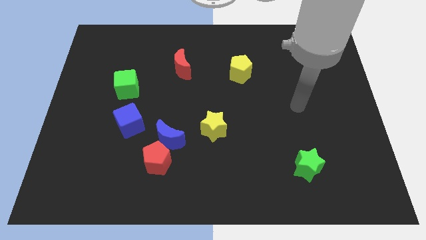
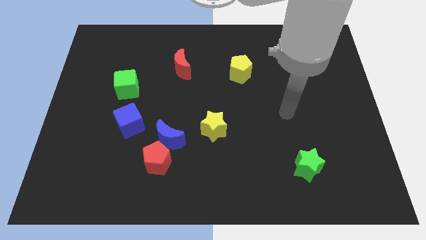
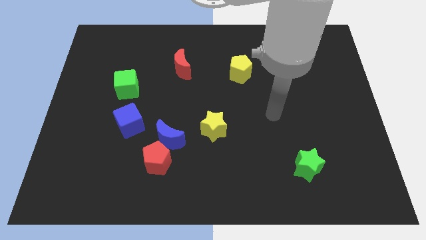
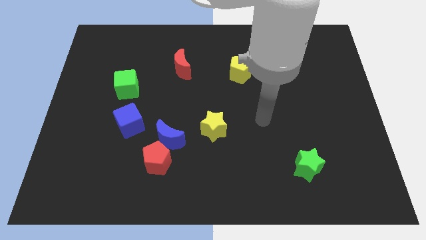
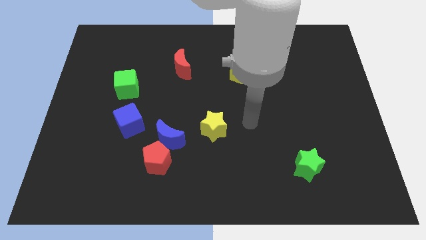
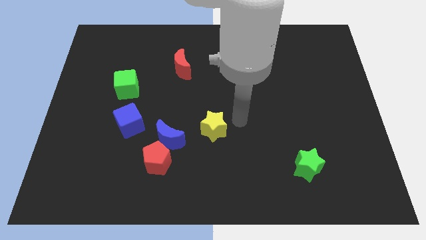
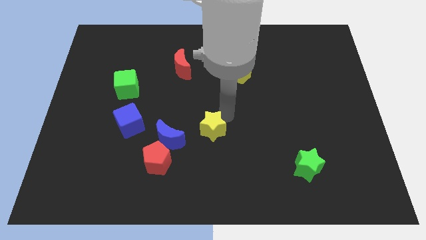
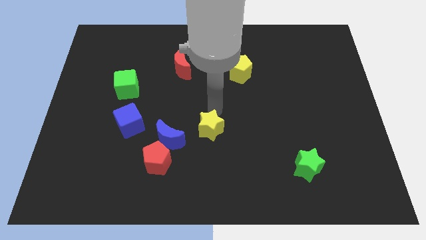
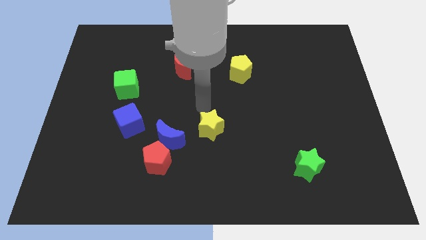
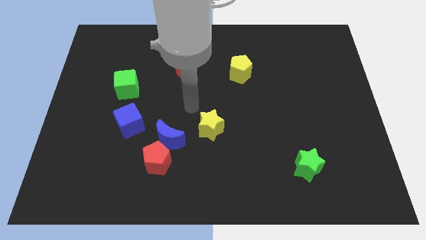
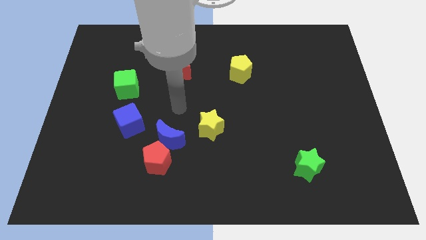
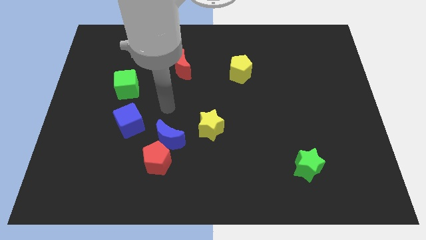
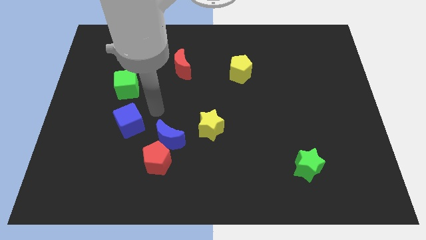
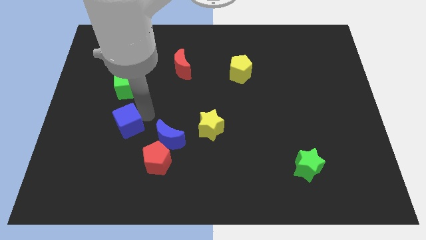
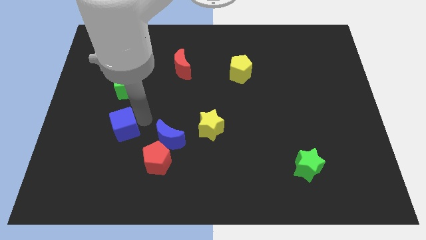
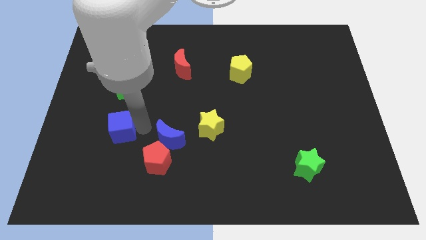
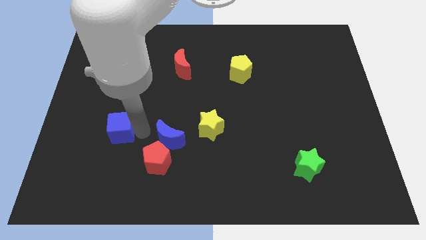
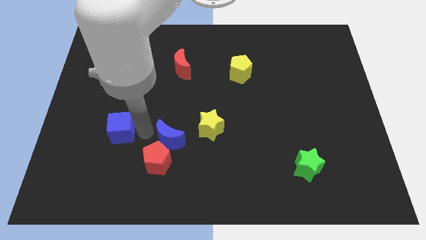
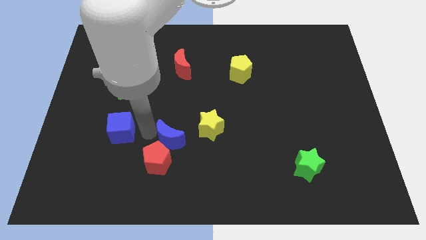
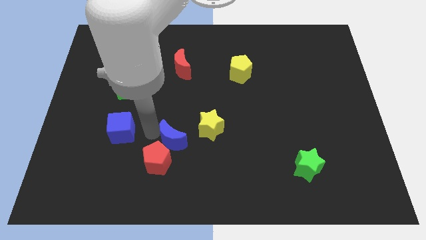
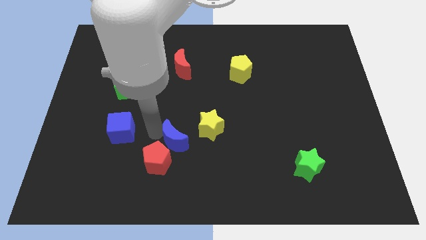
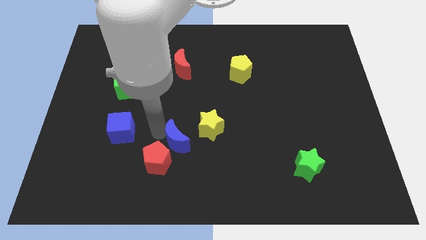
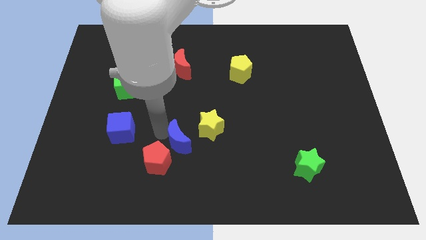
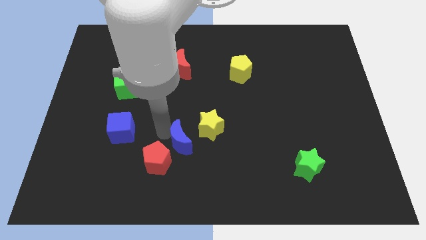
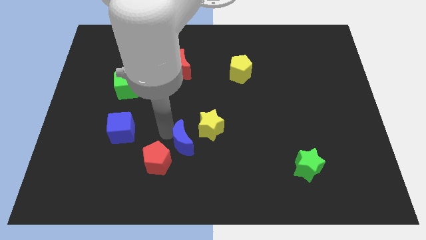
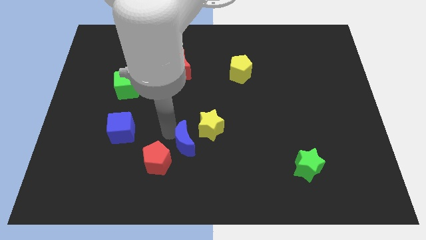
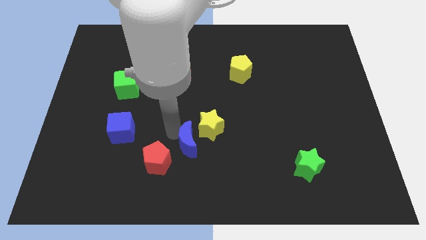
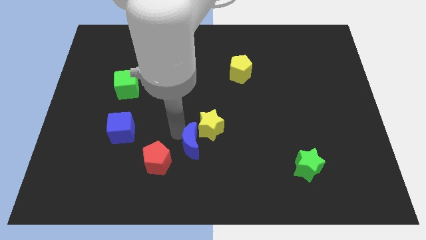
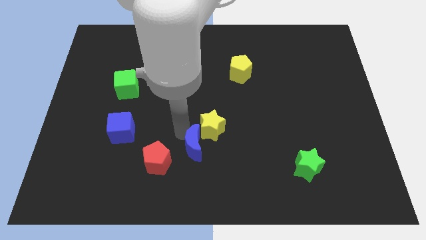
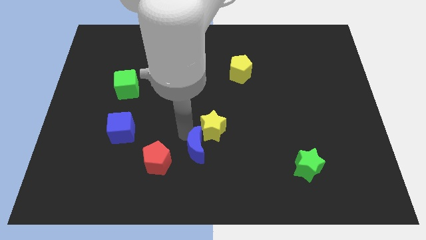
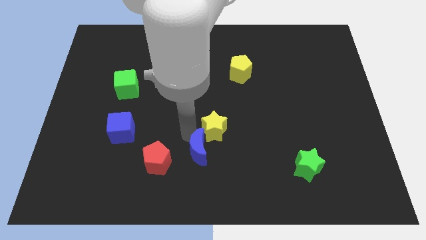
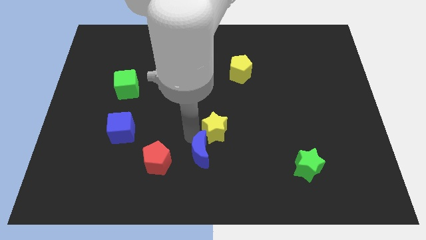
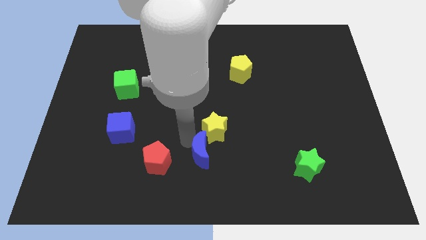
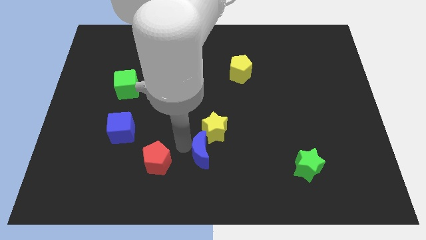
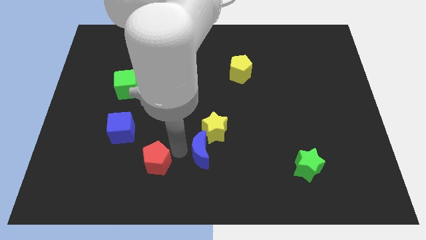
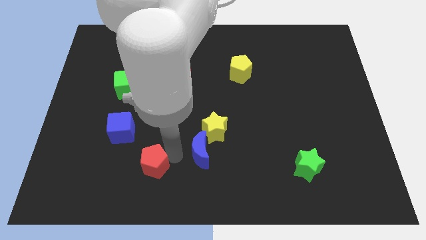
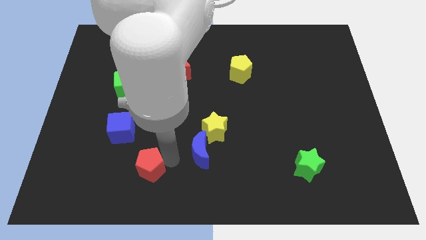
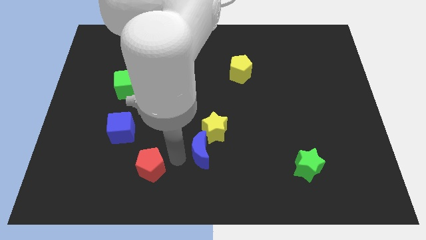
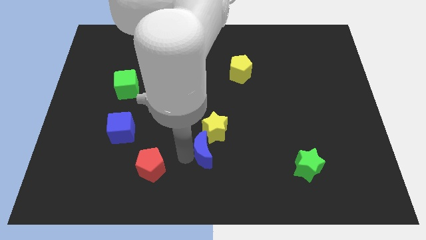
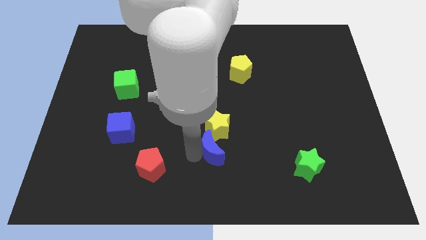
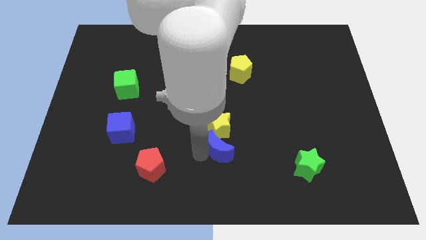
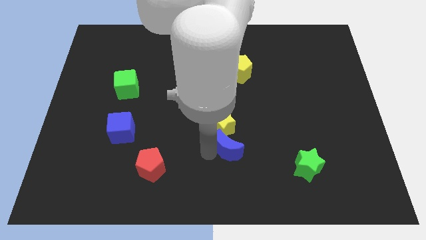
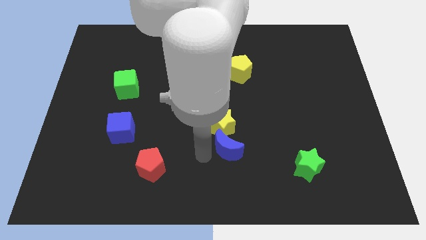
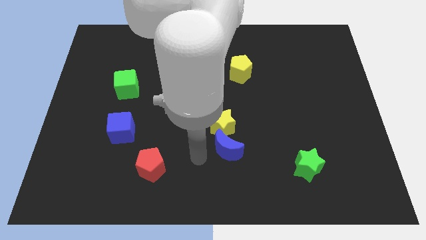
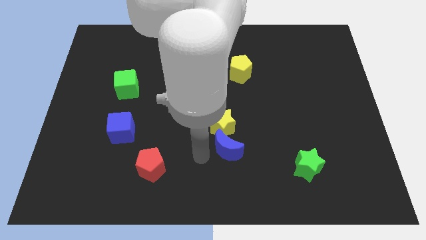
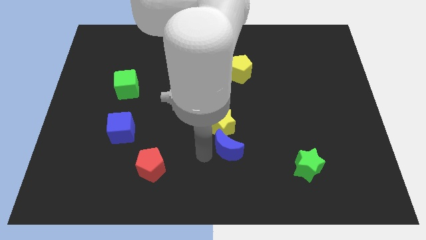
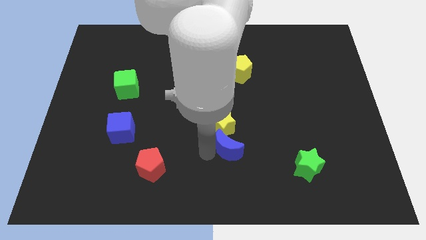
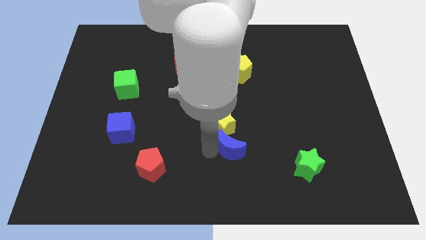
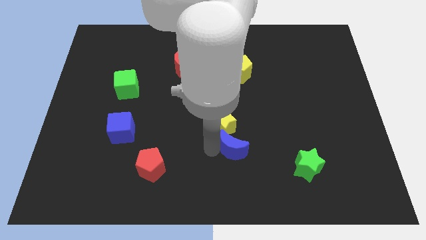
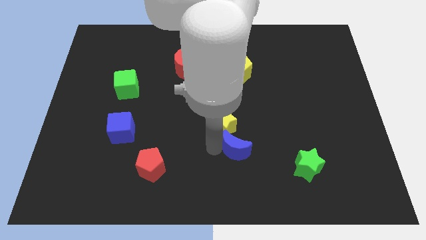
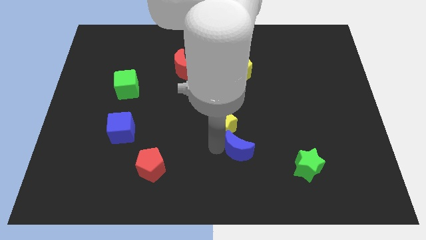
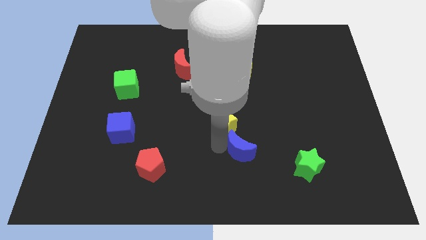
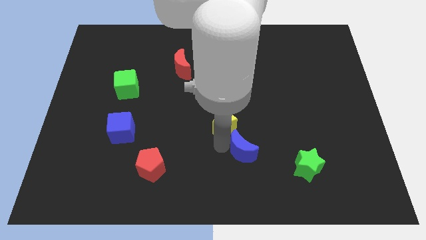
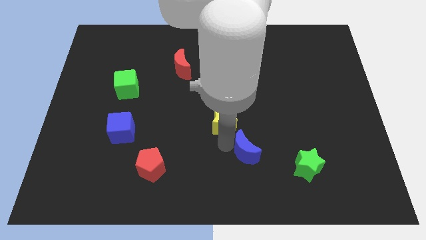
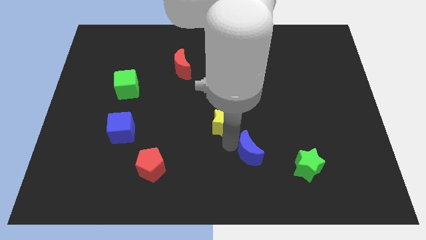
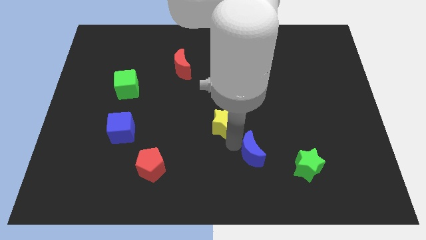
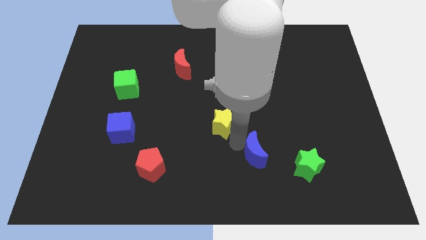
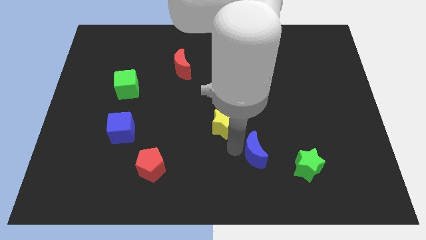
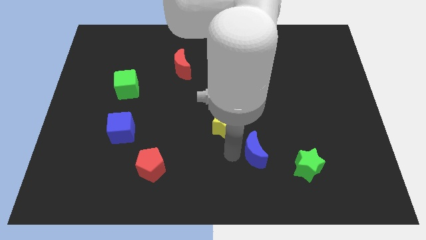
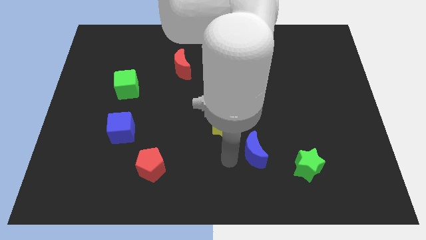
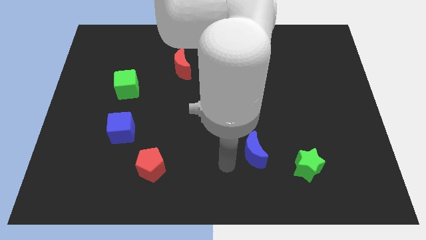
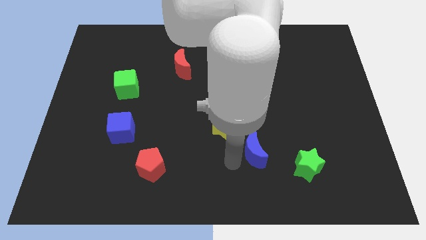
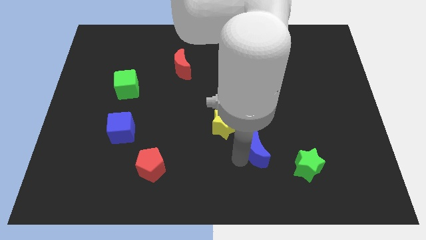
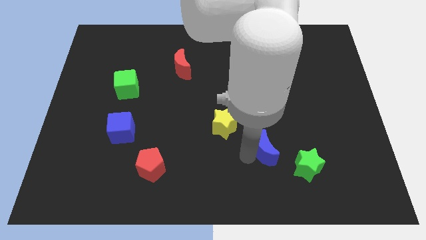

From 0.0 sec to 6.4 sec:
move the blue moon to the right

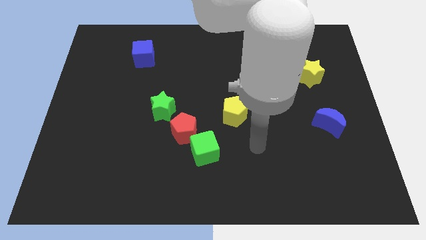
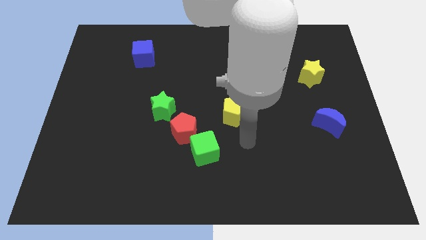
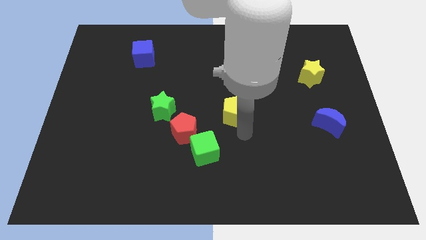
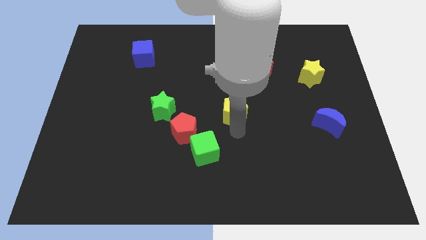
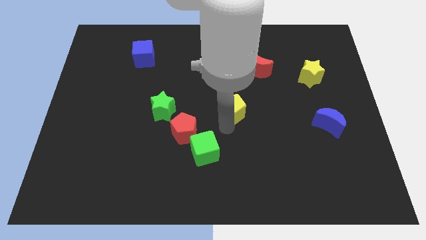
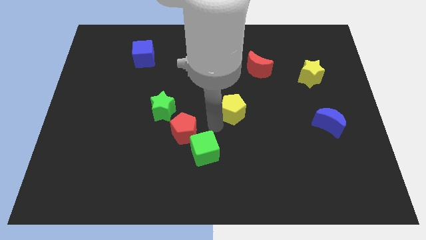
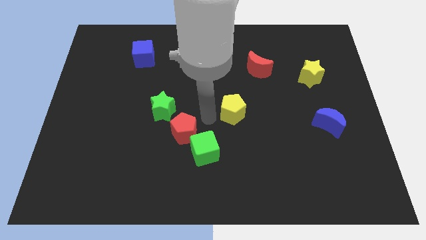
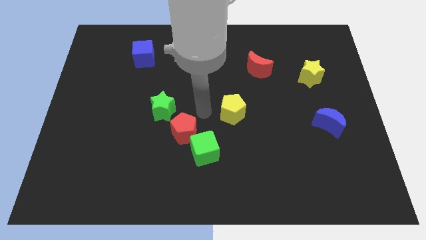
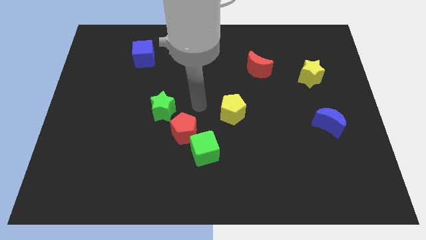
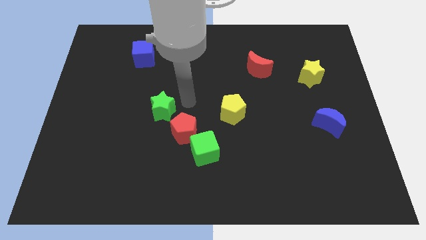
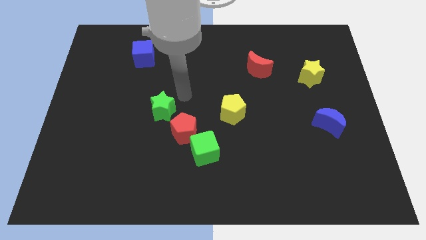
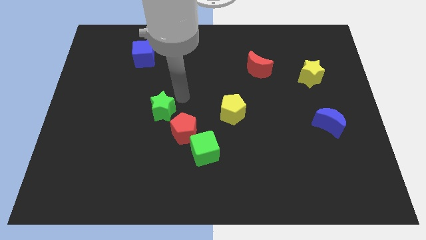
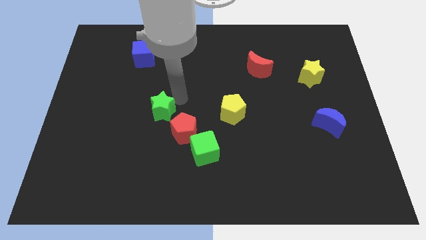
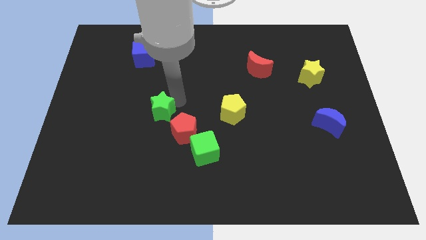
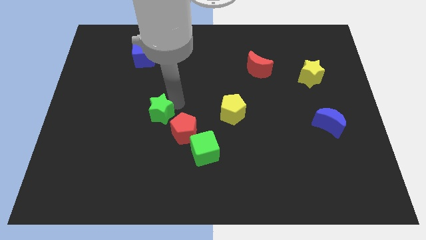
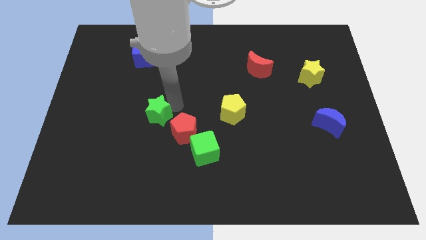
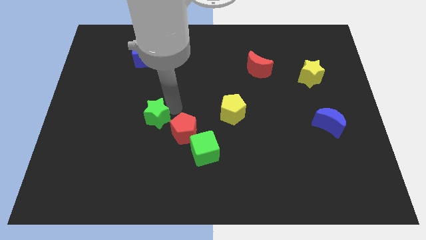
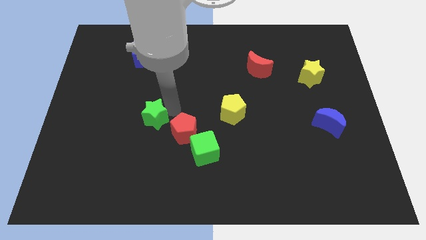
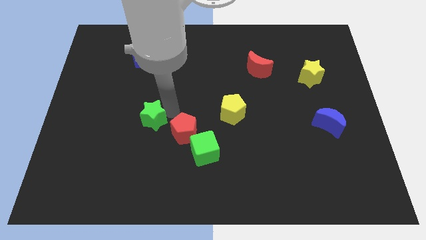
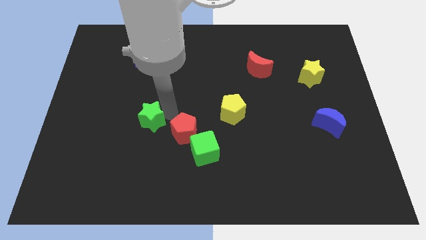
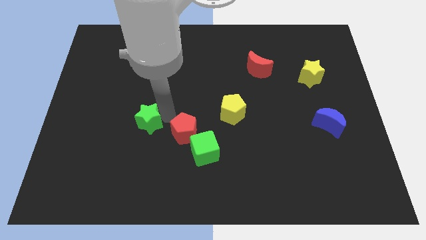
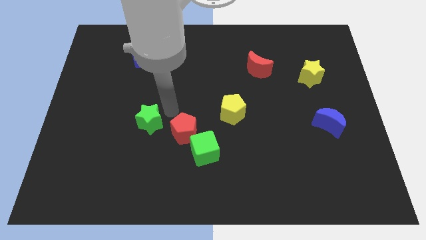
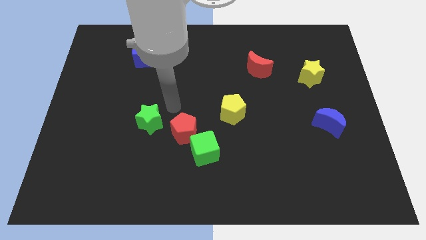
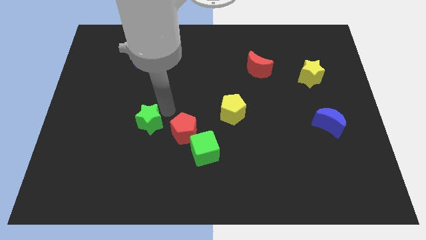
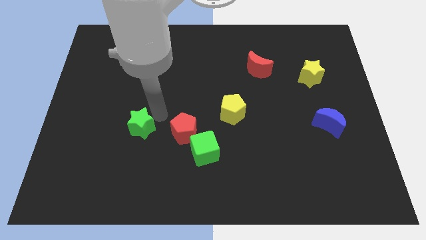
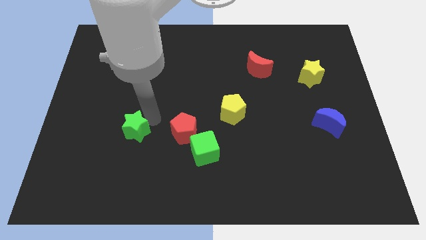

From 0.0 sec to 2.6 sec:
move the green star downwards and to the left diagonally a little
